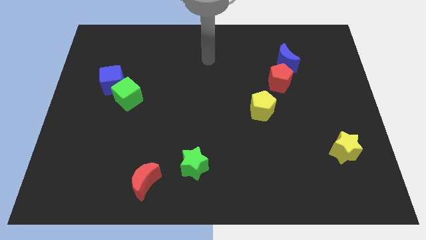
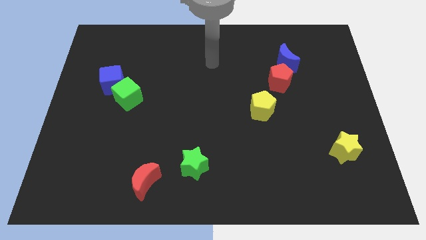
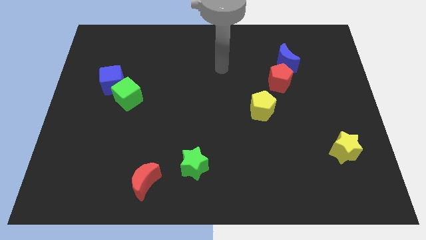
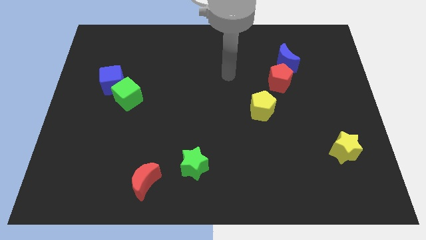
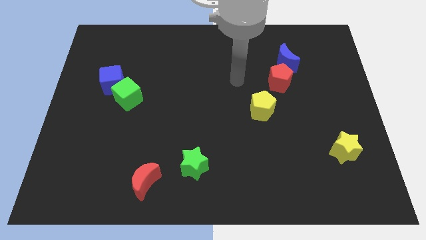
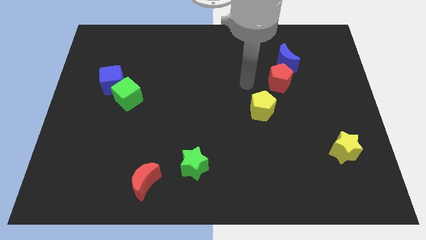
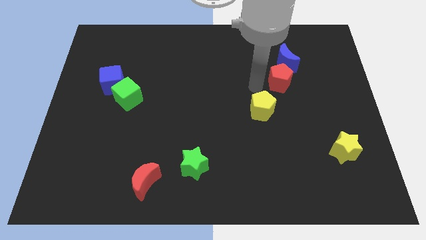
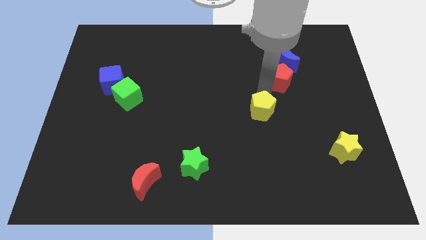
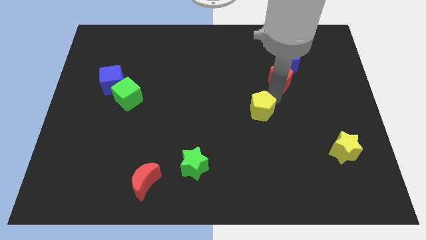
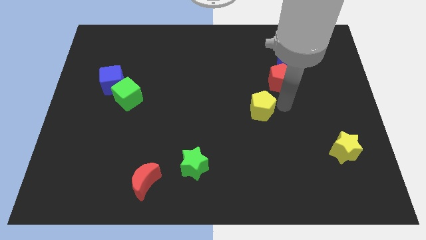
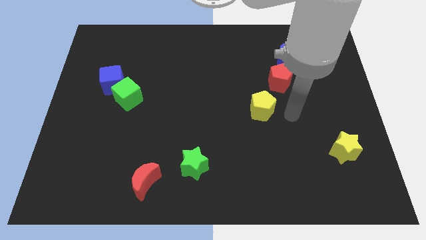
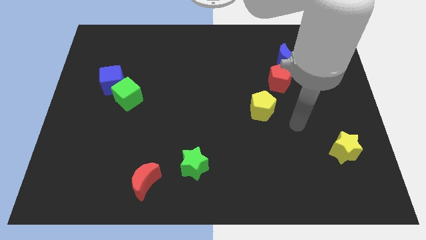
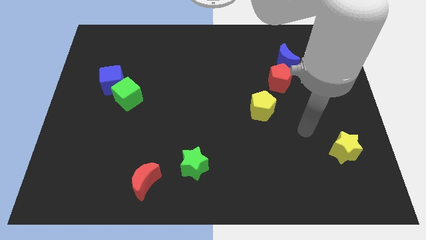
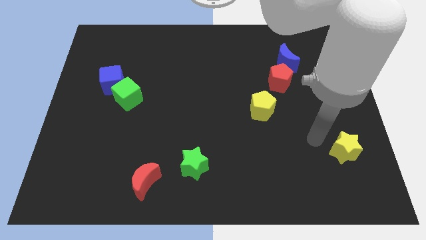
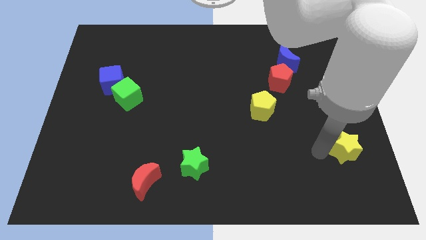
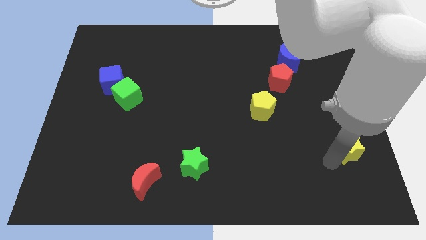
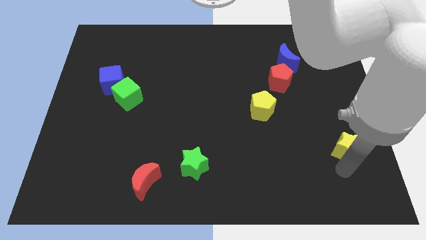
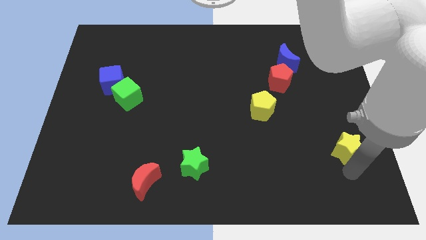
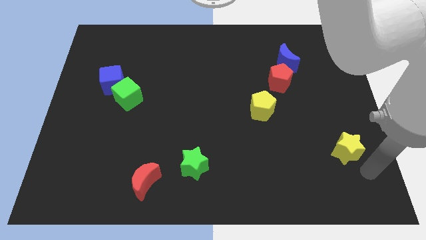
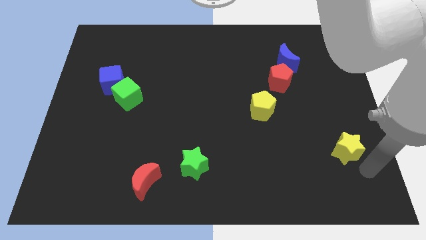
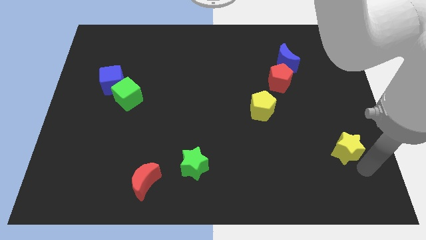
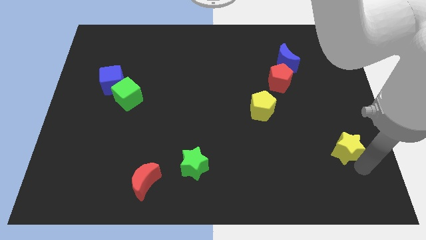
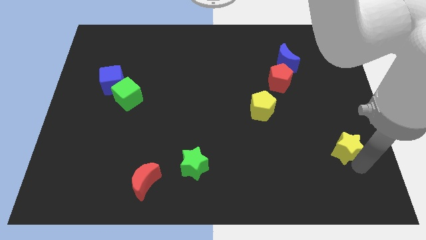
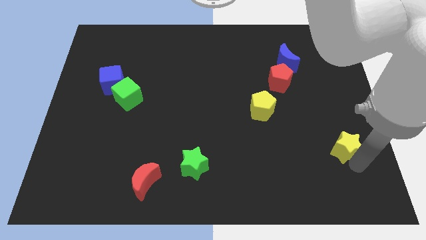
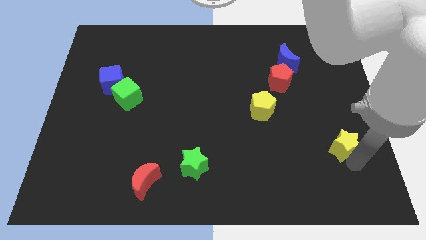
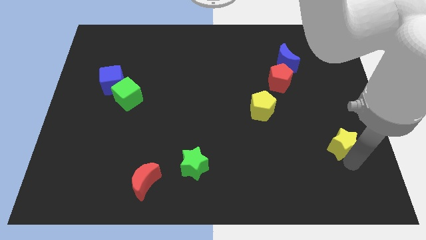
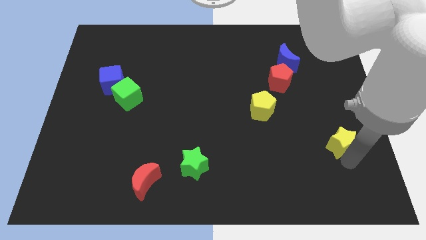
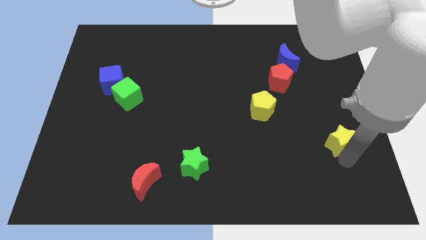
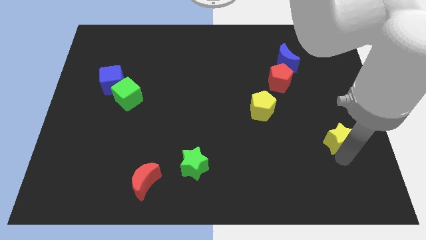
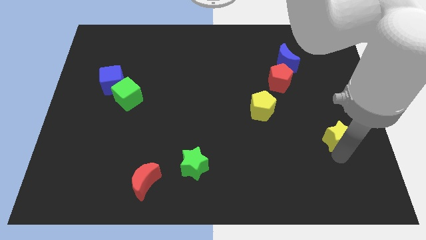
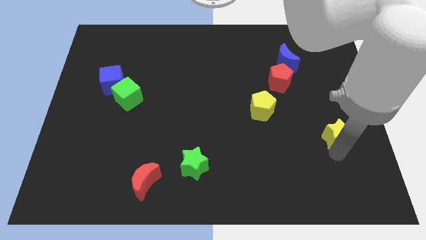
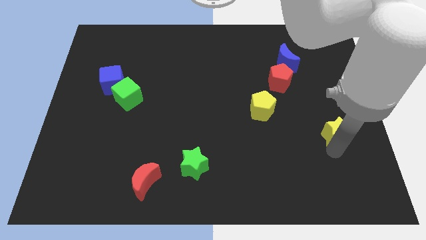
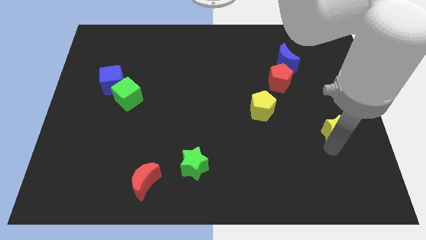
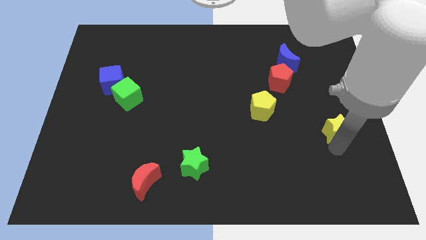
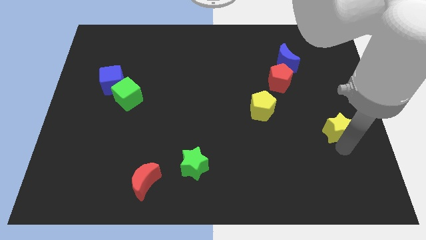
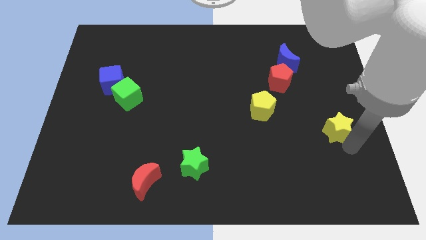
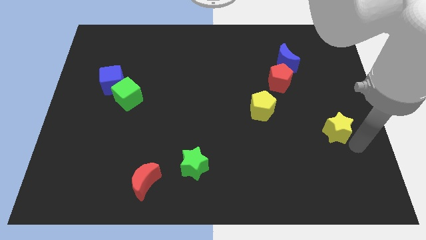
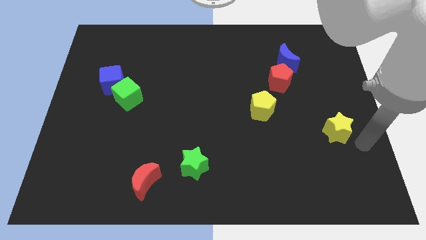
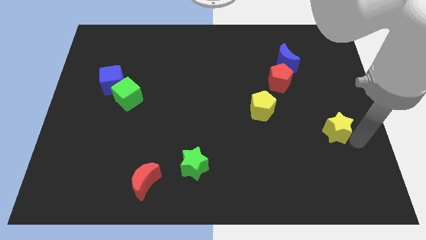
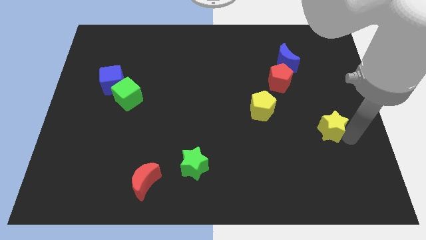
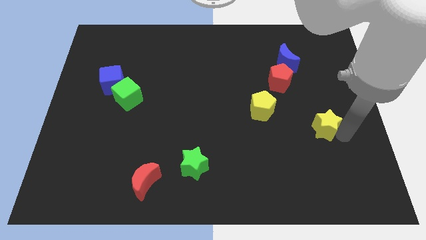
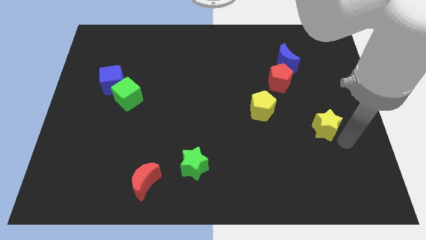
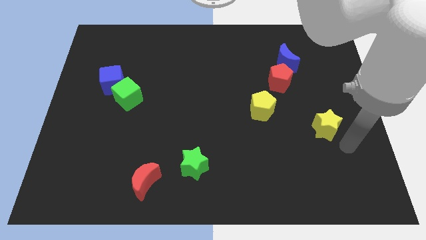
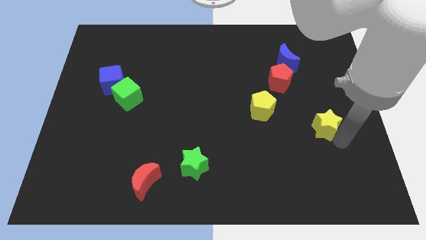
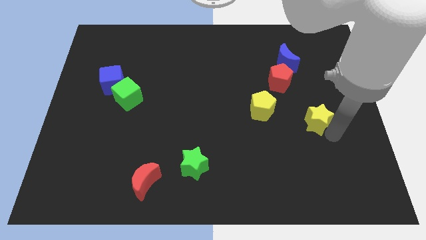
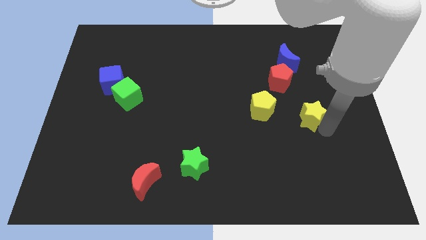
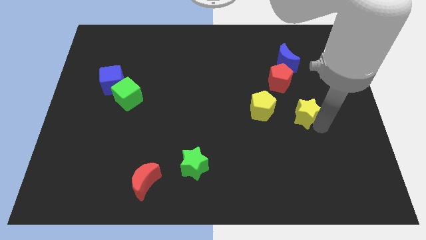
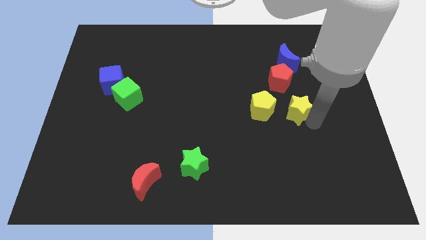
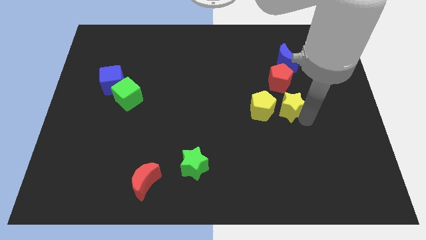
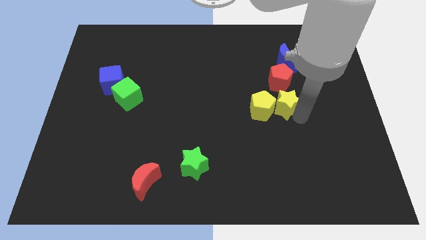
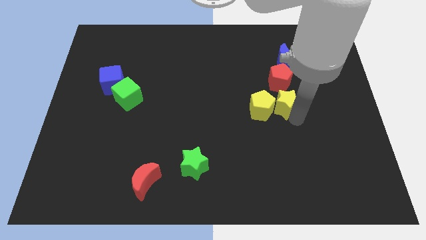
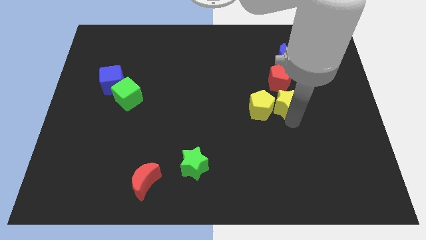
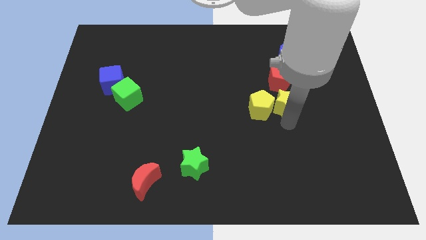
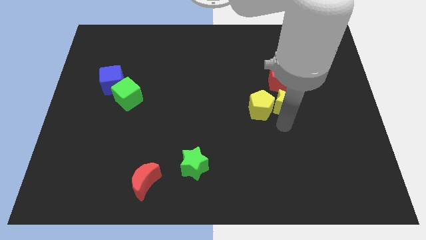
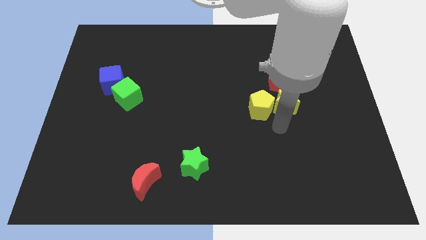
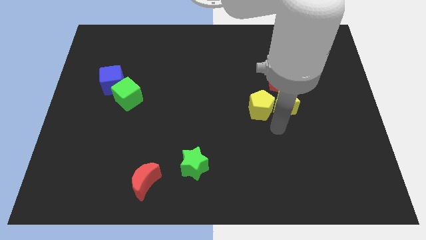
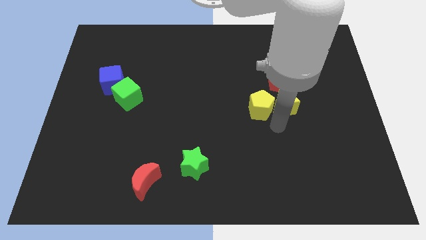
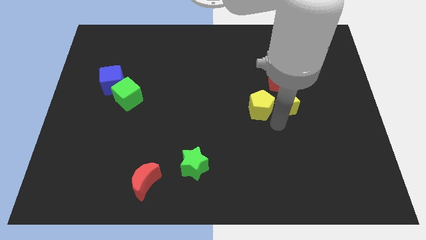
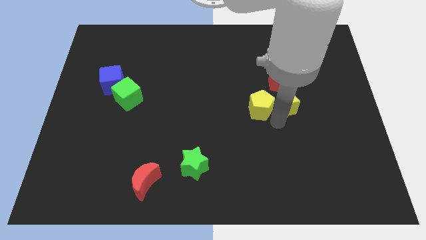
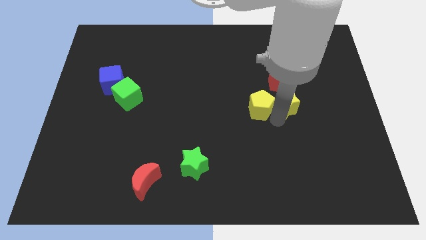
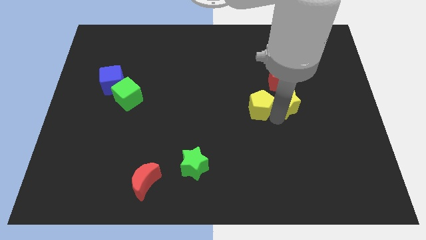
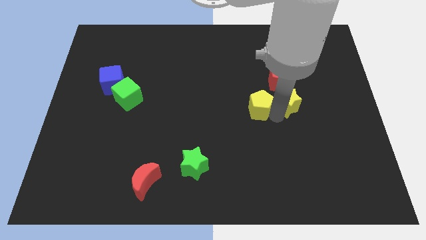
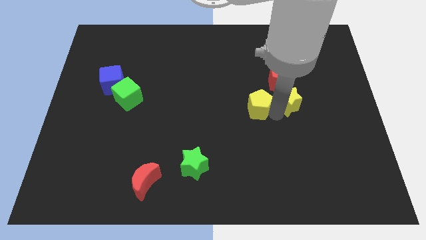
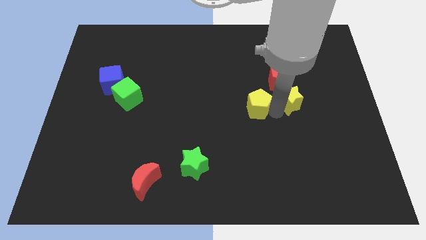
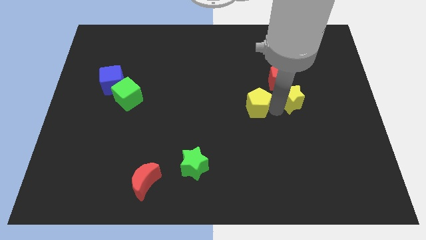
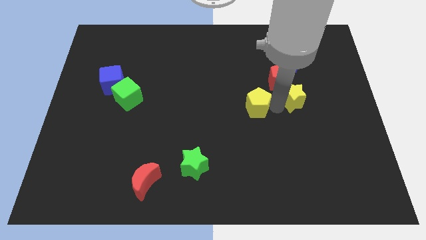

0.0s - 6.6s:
move the yellow star towards the red pentagon

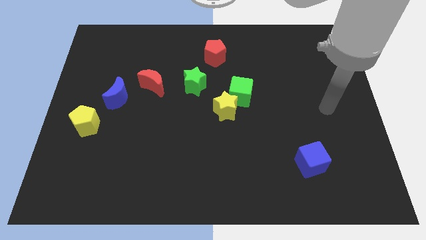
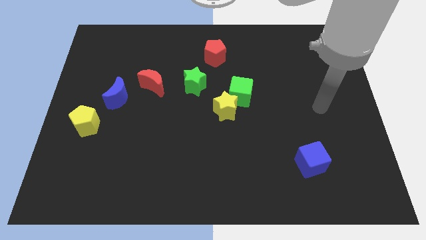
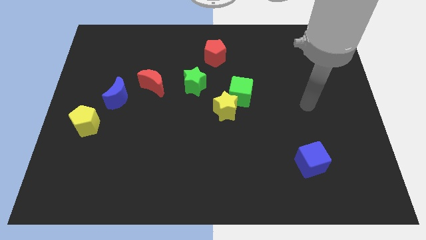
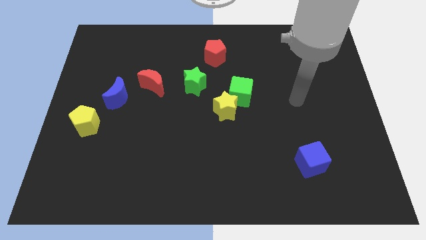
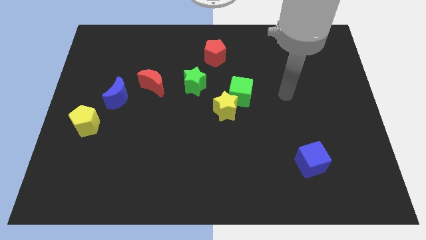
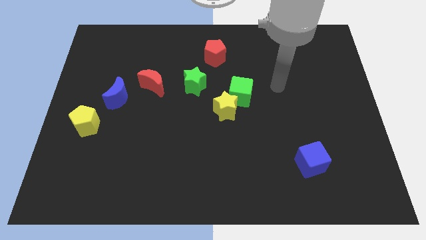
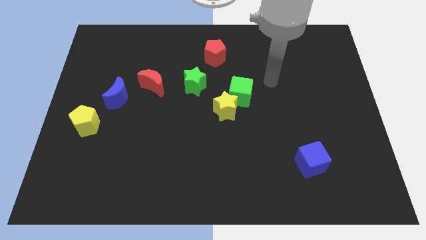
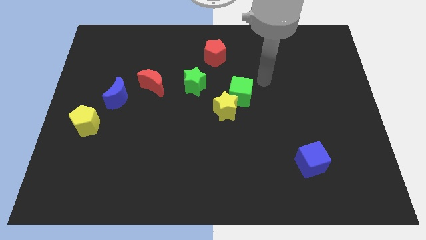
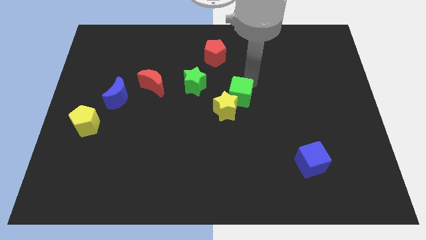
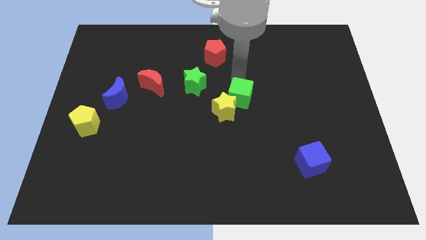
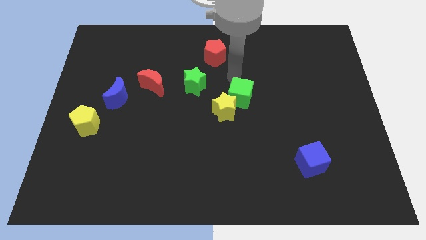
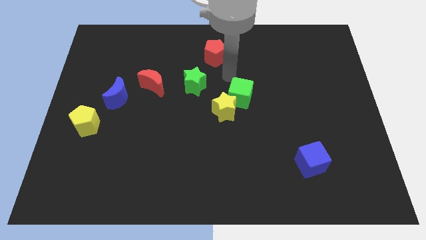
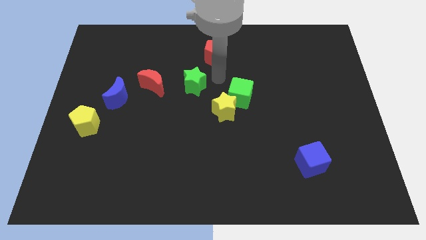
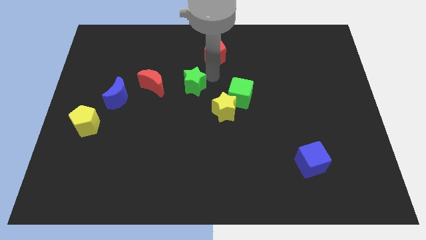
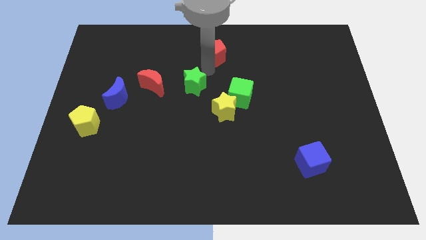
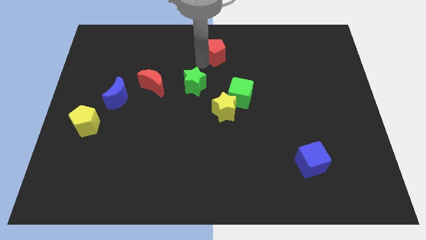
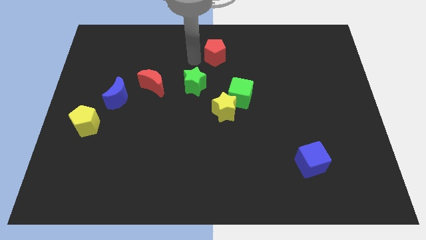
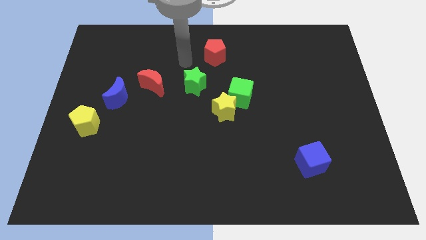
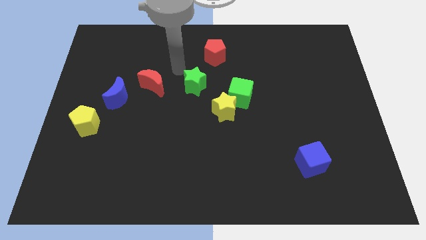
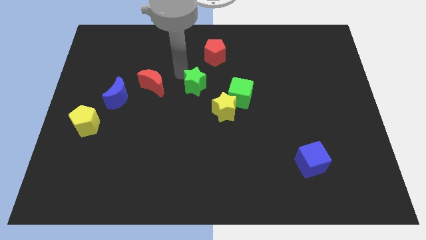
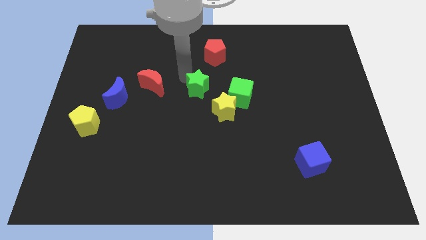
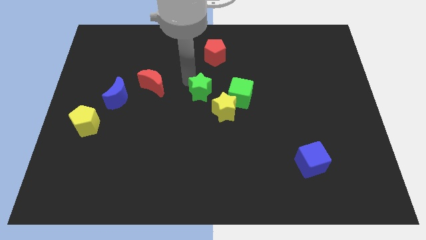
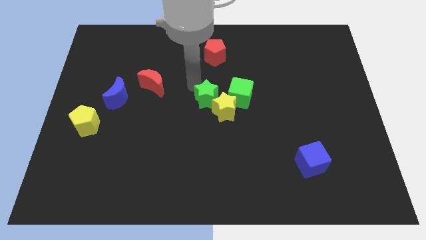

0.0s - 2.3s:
put the green star close to the yellow star
